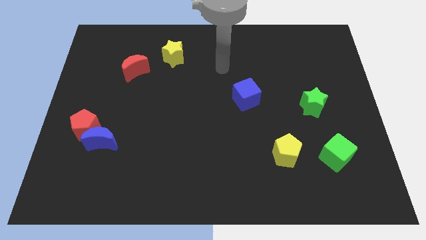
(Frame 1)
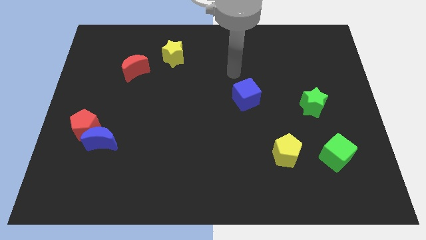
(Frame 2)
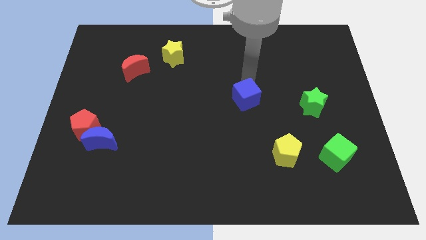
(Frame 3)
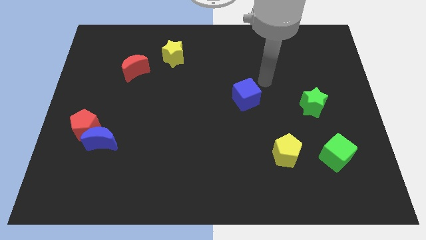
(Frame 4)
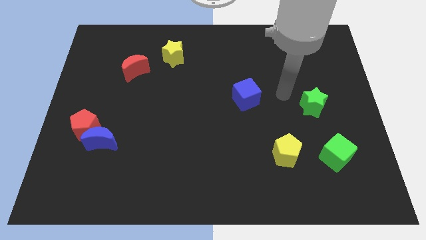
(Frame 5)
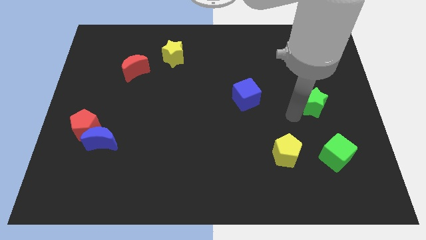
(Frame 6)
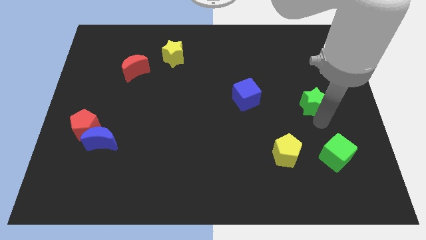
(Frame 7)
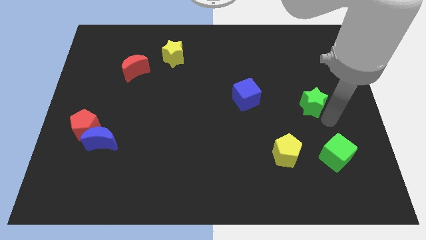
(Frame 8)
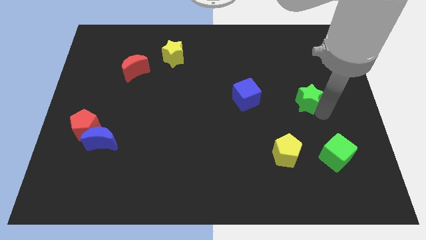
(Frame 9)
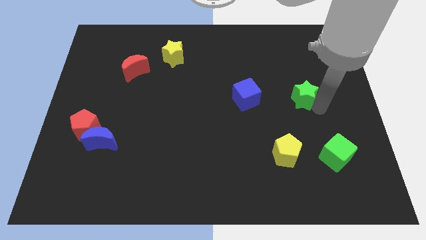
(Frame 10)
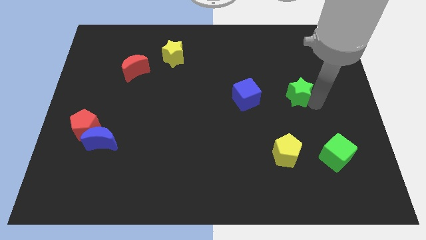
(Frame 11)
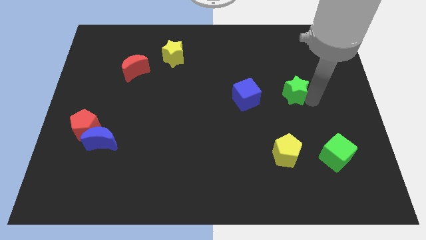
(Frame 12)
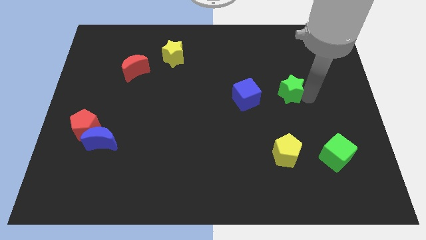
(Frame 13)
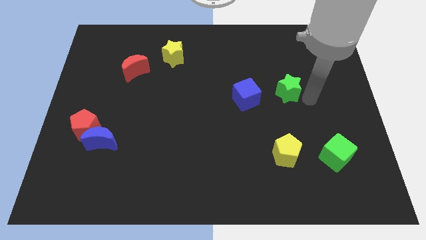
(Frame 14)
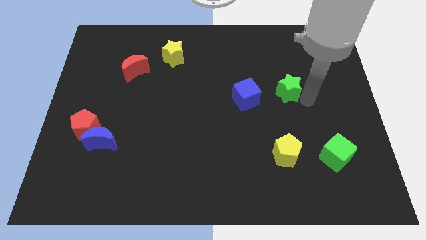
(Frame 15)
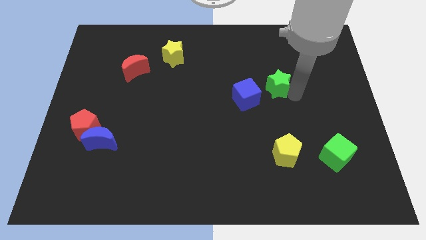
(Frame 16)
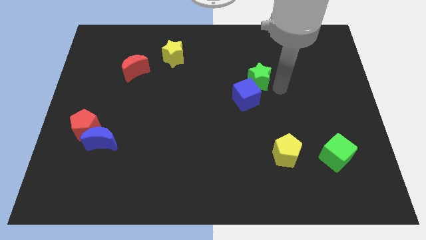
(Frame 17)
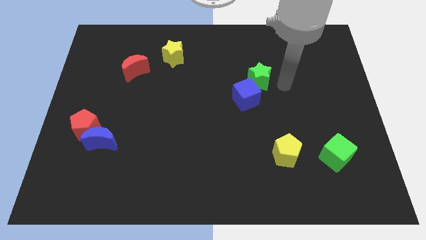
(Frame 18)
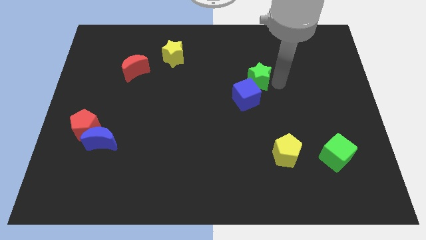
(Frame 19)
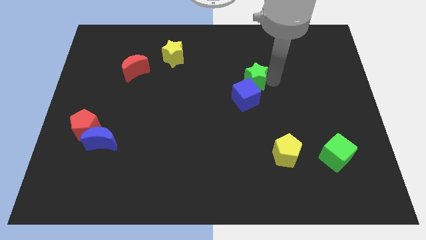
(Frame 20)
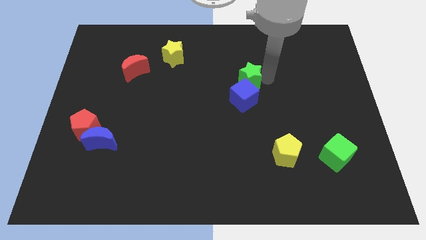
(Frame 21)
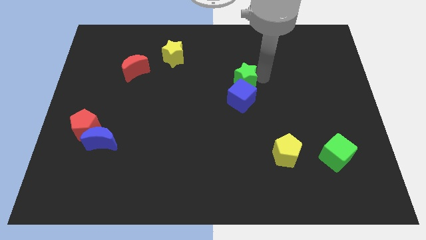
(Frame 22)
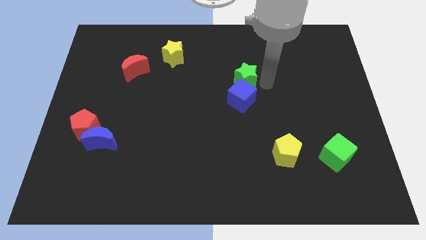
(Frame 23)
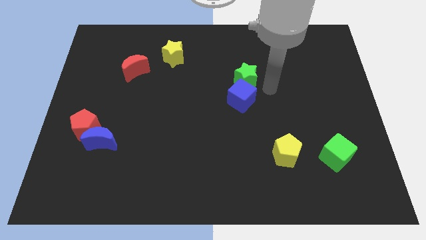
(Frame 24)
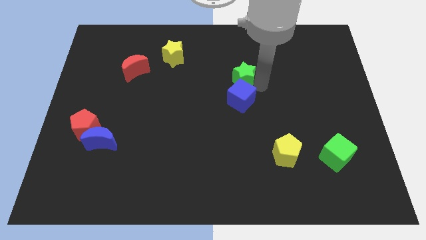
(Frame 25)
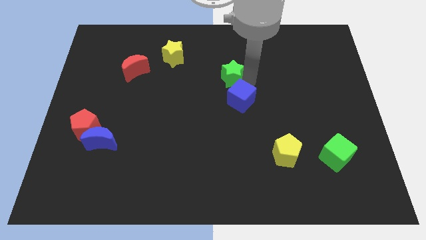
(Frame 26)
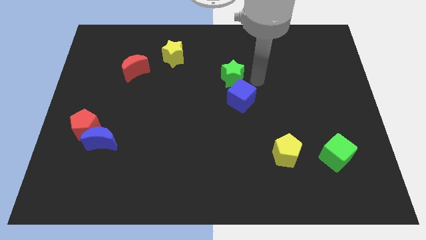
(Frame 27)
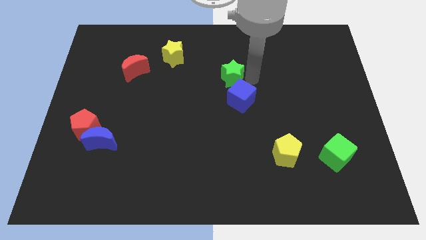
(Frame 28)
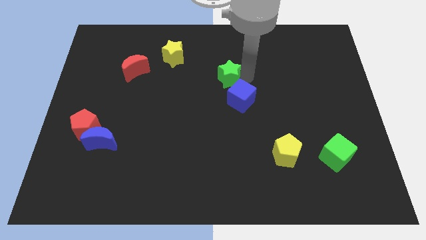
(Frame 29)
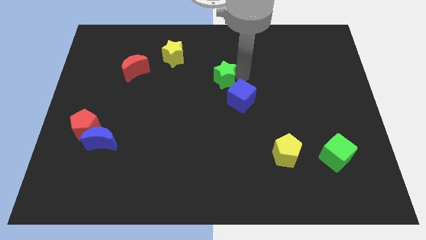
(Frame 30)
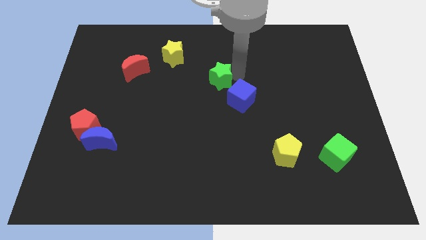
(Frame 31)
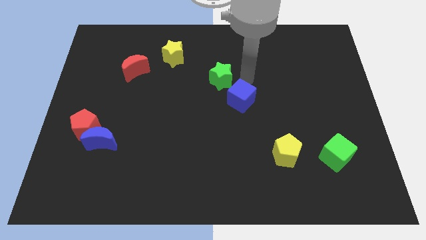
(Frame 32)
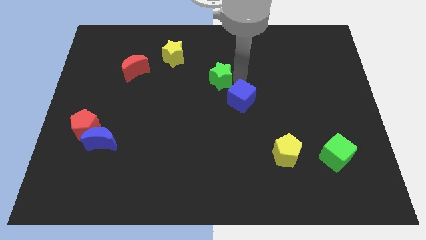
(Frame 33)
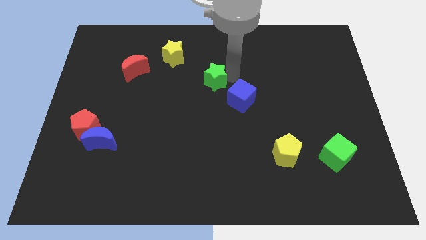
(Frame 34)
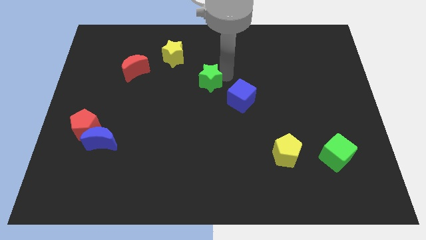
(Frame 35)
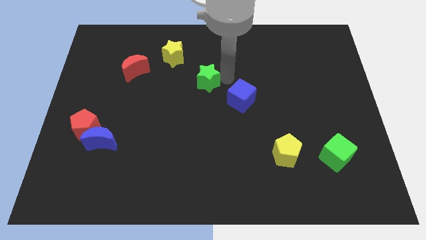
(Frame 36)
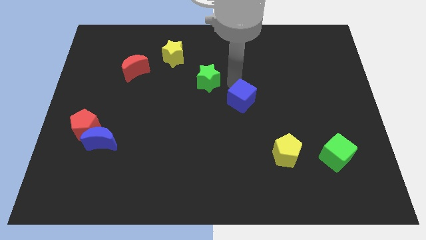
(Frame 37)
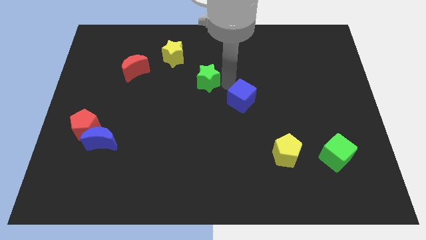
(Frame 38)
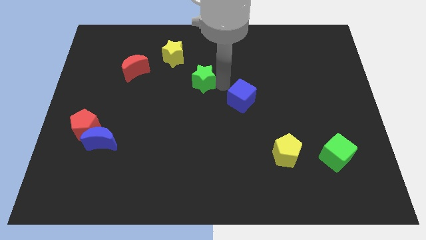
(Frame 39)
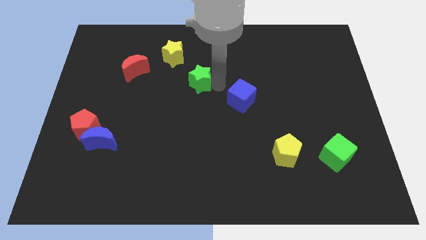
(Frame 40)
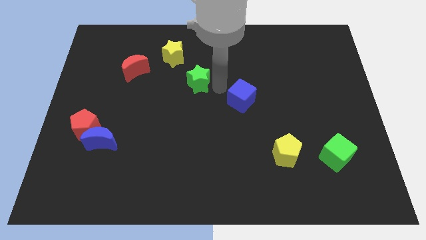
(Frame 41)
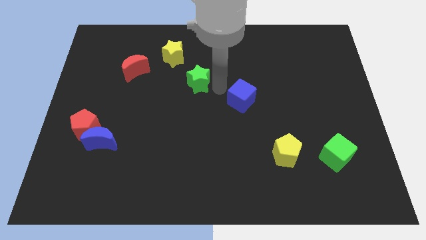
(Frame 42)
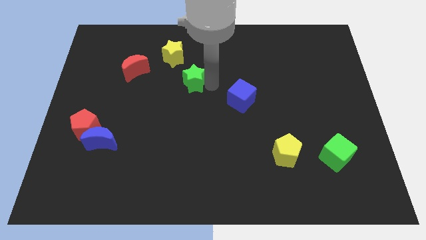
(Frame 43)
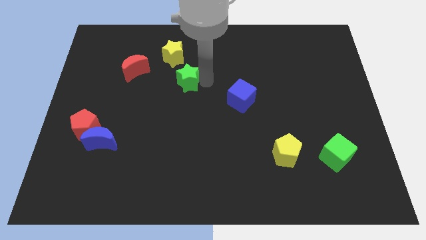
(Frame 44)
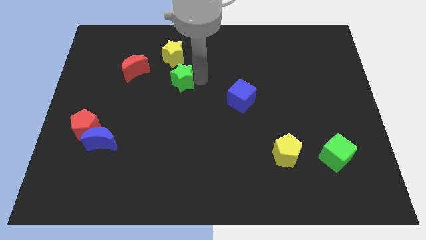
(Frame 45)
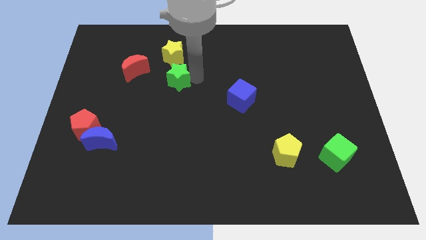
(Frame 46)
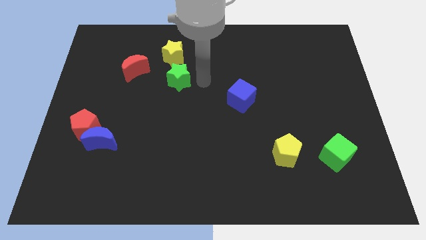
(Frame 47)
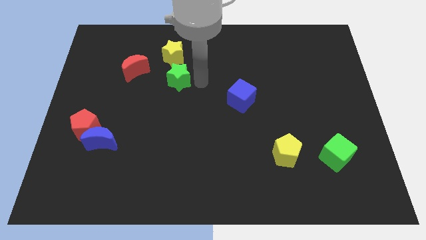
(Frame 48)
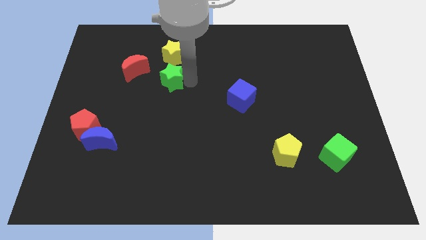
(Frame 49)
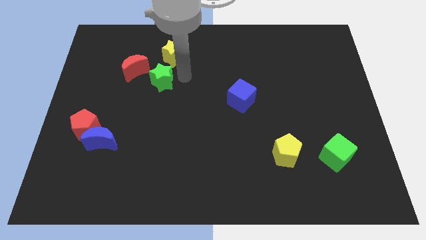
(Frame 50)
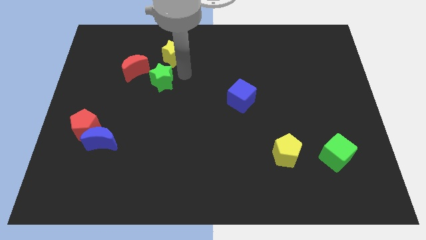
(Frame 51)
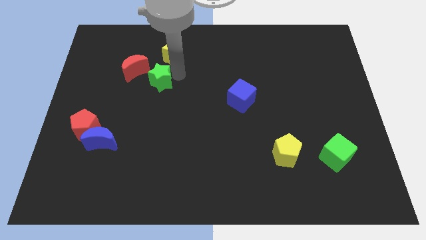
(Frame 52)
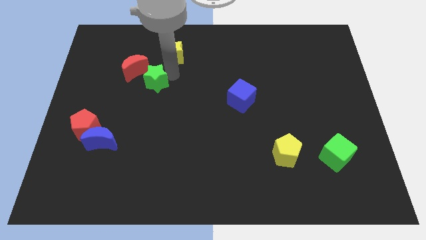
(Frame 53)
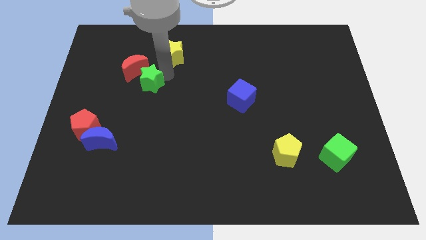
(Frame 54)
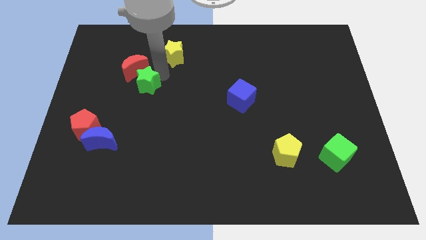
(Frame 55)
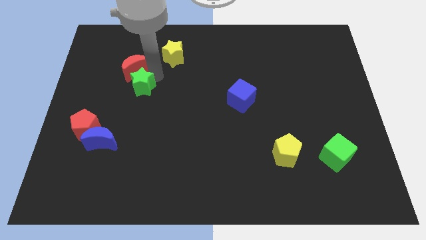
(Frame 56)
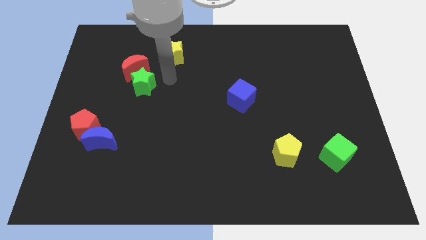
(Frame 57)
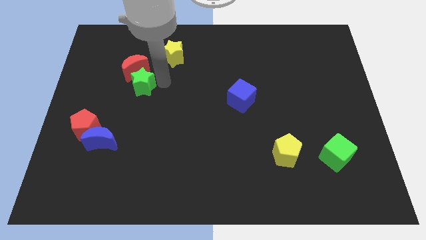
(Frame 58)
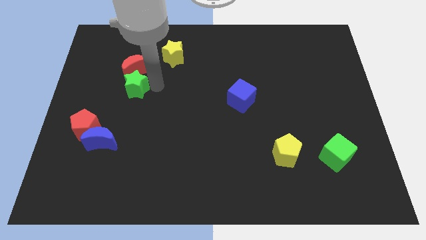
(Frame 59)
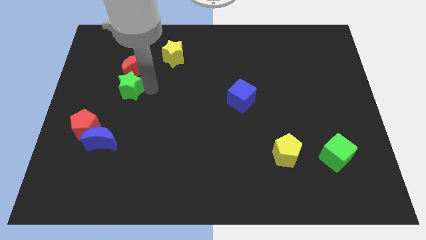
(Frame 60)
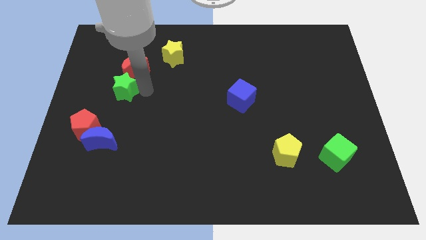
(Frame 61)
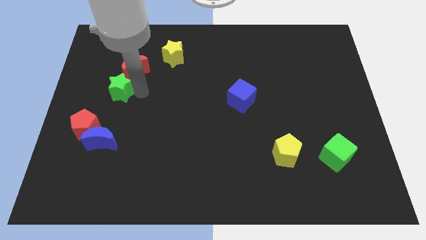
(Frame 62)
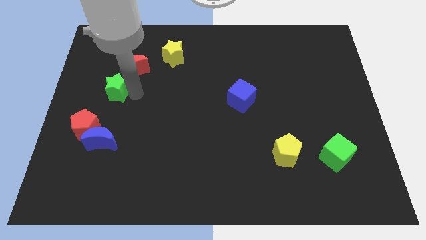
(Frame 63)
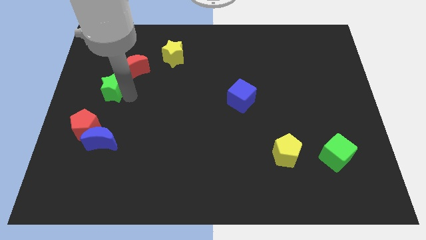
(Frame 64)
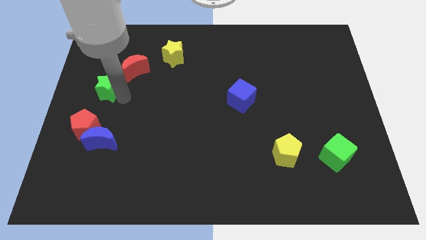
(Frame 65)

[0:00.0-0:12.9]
push the green star to the center left
